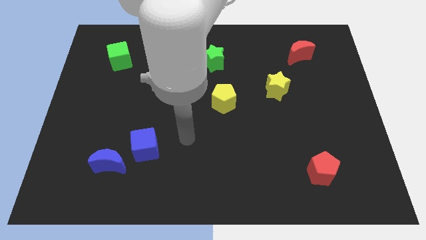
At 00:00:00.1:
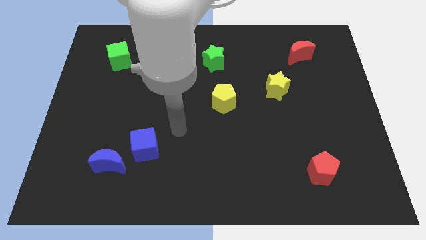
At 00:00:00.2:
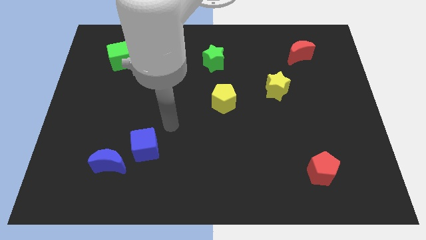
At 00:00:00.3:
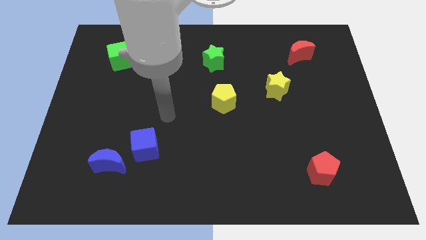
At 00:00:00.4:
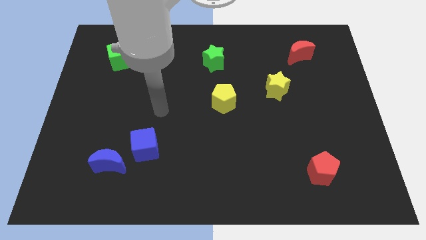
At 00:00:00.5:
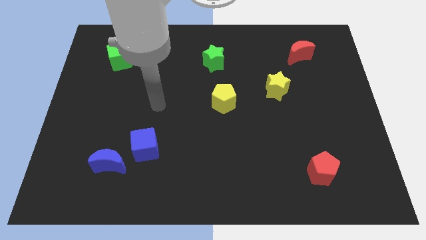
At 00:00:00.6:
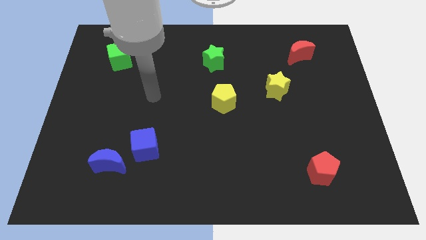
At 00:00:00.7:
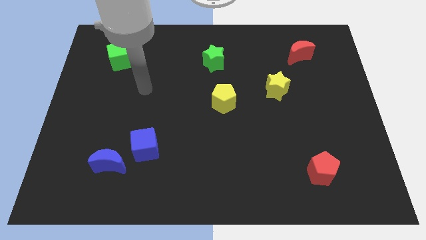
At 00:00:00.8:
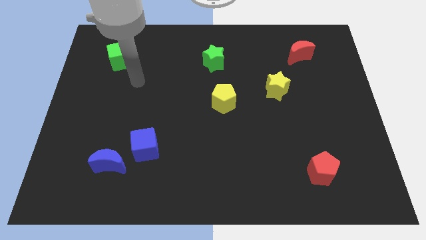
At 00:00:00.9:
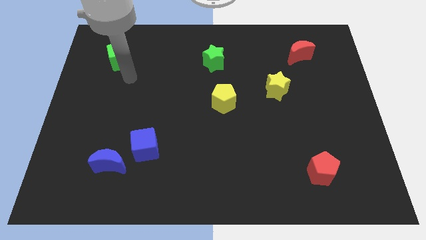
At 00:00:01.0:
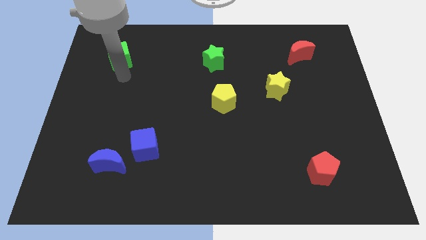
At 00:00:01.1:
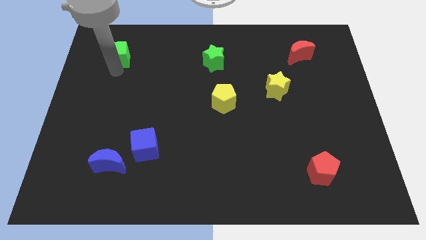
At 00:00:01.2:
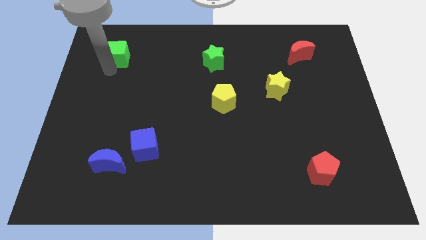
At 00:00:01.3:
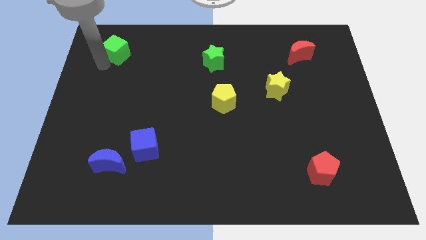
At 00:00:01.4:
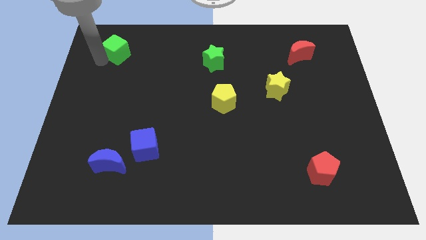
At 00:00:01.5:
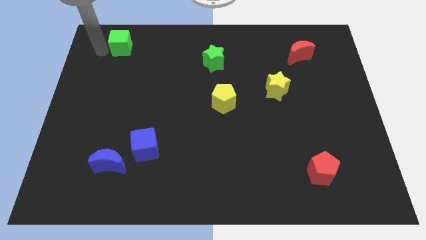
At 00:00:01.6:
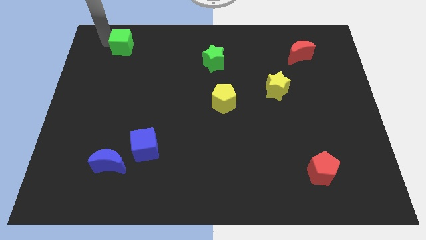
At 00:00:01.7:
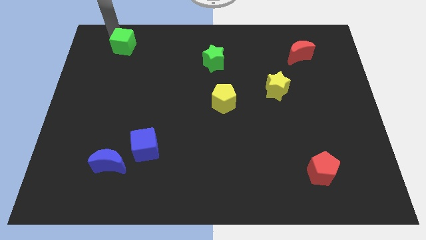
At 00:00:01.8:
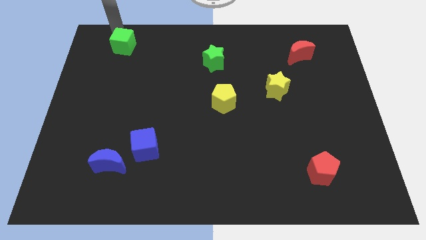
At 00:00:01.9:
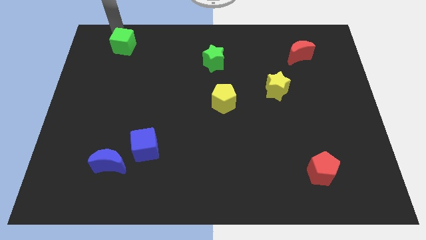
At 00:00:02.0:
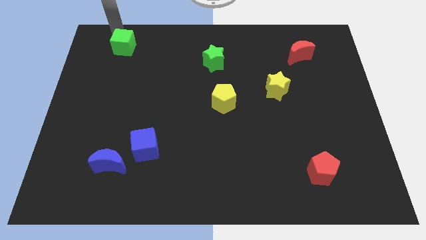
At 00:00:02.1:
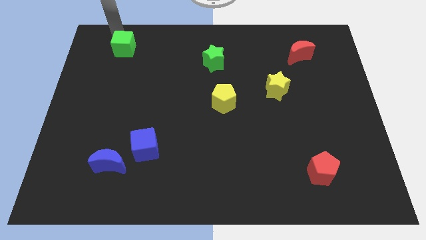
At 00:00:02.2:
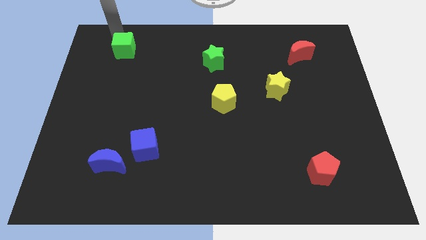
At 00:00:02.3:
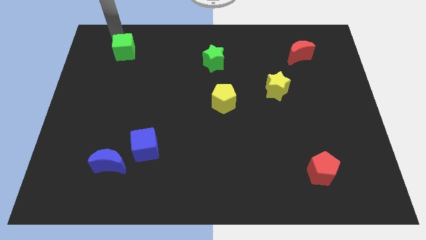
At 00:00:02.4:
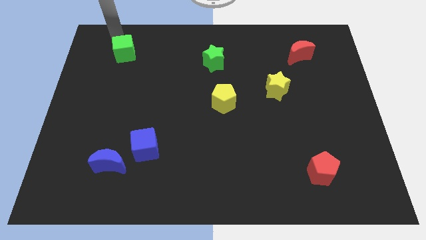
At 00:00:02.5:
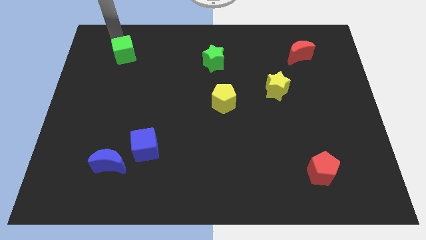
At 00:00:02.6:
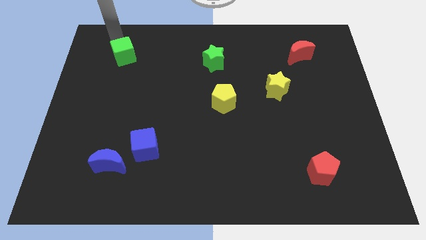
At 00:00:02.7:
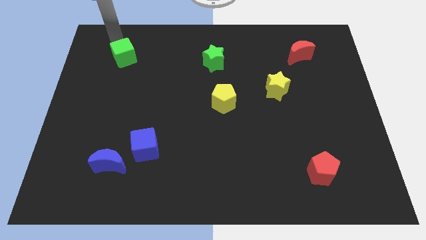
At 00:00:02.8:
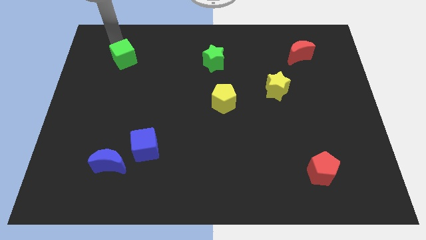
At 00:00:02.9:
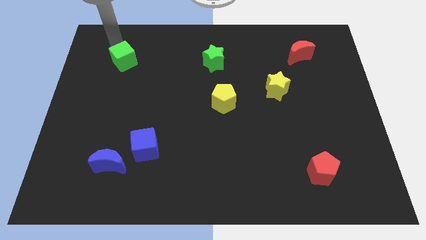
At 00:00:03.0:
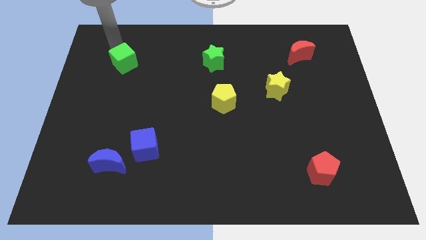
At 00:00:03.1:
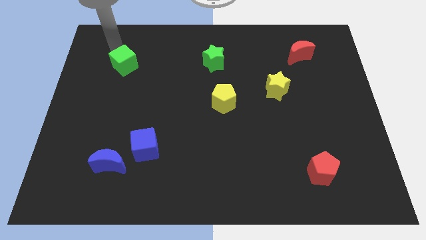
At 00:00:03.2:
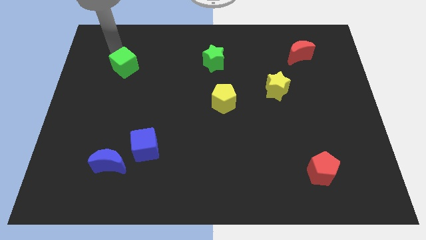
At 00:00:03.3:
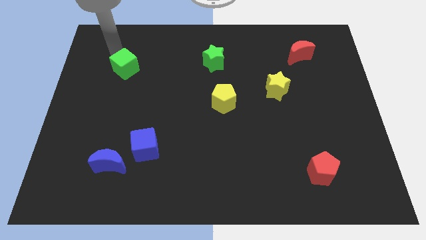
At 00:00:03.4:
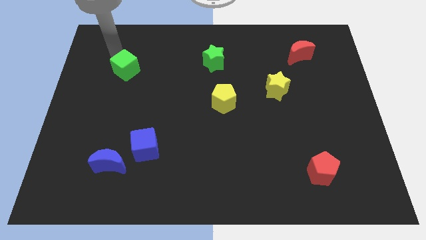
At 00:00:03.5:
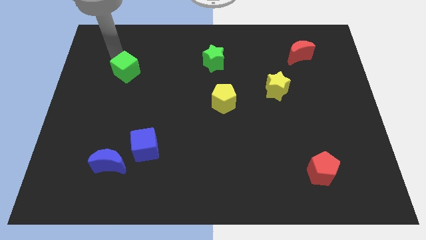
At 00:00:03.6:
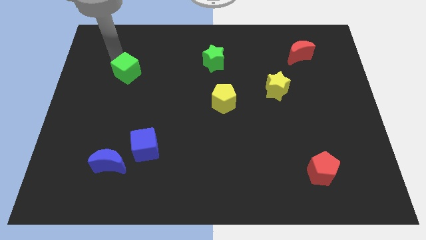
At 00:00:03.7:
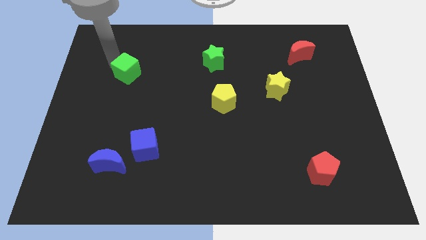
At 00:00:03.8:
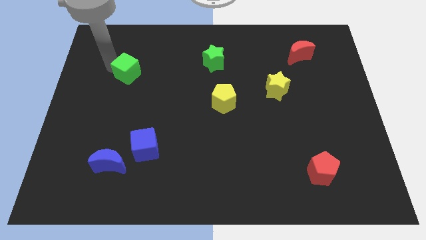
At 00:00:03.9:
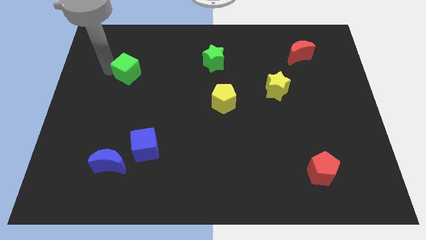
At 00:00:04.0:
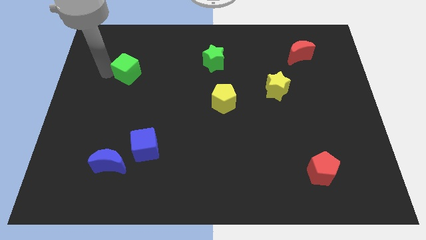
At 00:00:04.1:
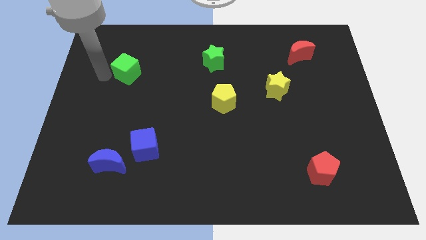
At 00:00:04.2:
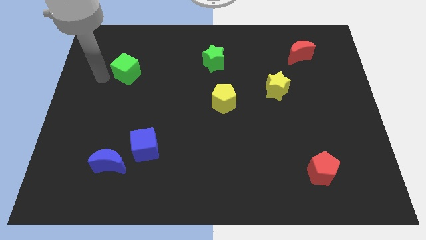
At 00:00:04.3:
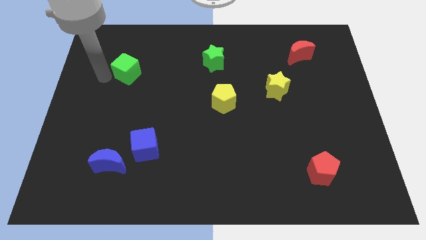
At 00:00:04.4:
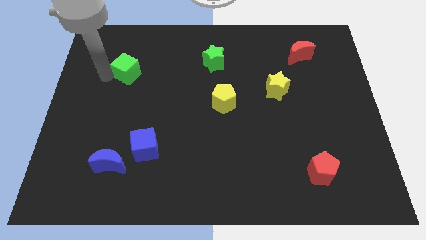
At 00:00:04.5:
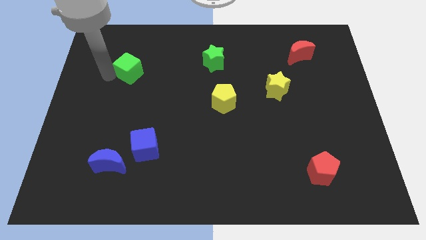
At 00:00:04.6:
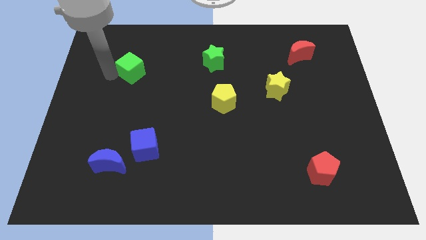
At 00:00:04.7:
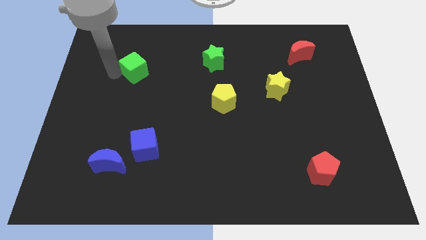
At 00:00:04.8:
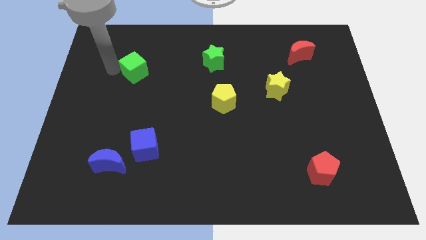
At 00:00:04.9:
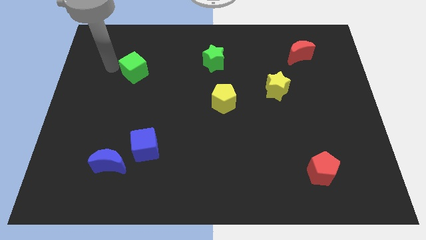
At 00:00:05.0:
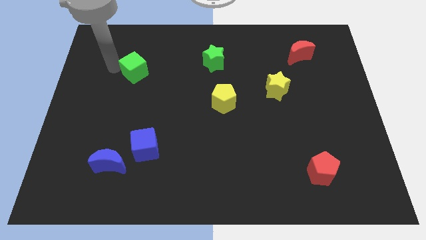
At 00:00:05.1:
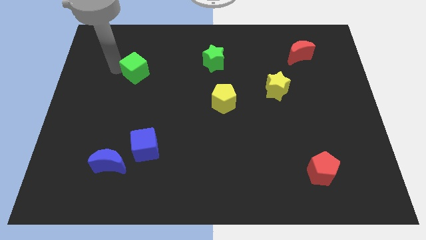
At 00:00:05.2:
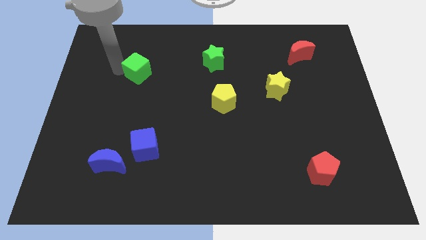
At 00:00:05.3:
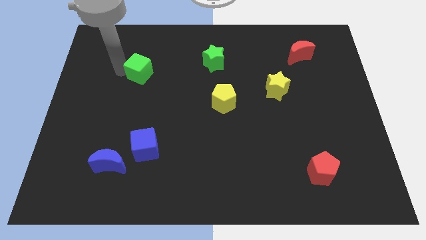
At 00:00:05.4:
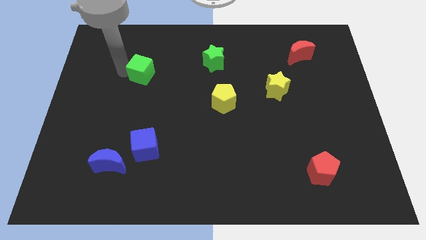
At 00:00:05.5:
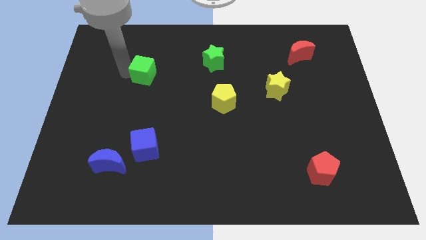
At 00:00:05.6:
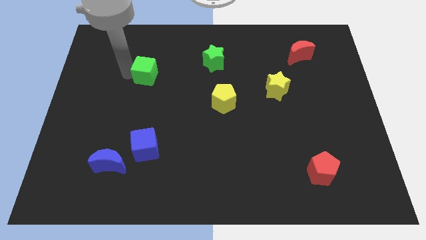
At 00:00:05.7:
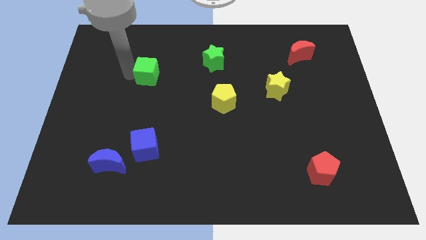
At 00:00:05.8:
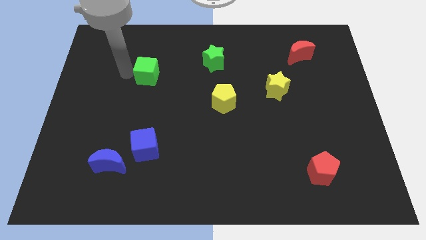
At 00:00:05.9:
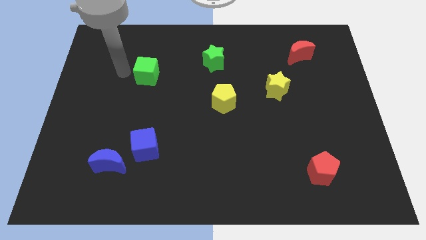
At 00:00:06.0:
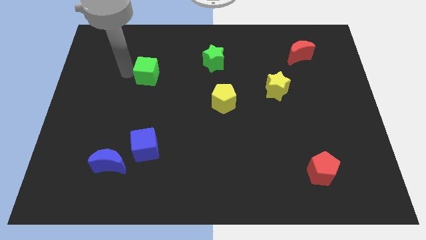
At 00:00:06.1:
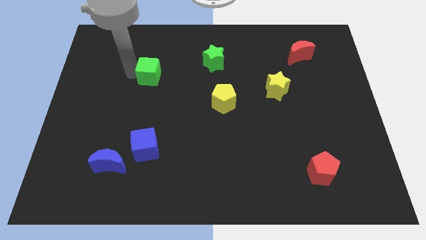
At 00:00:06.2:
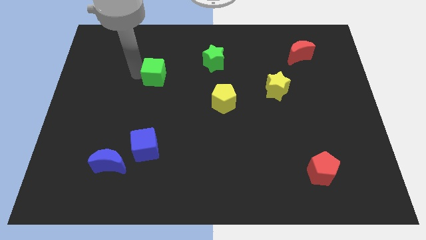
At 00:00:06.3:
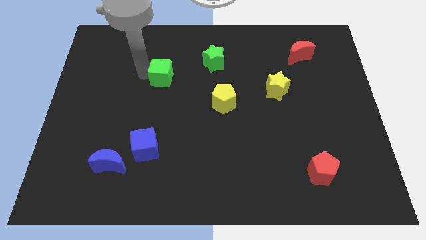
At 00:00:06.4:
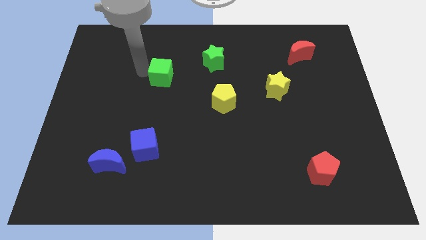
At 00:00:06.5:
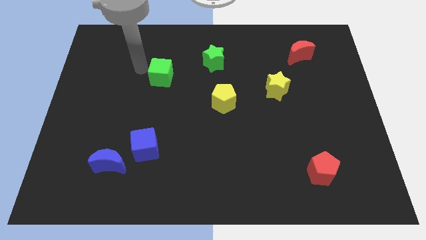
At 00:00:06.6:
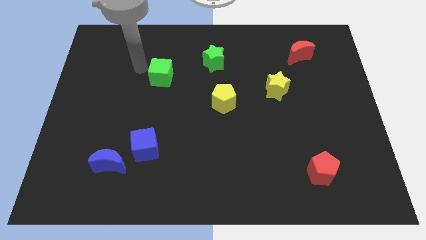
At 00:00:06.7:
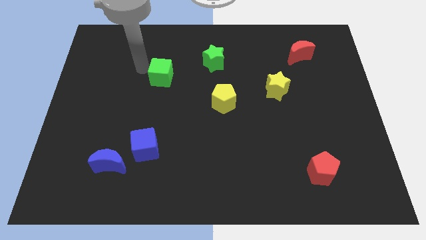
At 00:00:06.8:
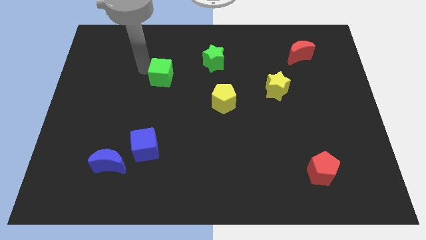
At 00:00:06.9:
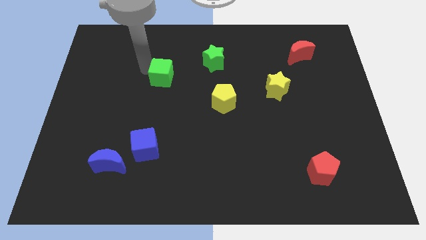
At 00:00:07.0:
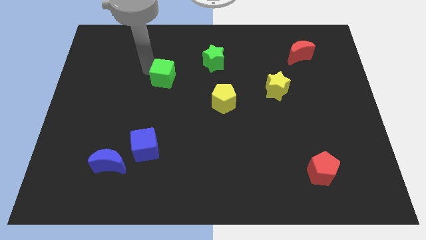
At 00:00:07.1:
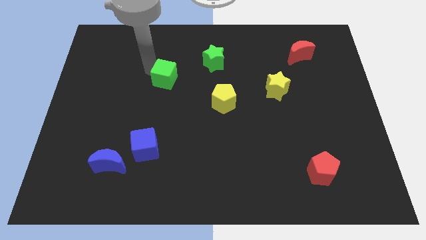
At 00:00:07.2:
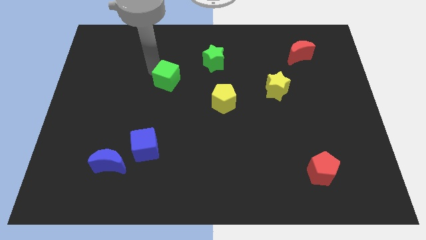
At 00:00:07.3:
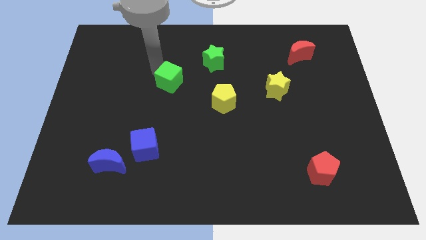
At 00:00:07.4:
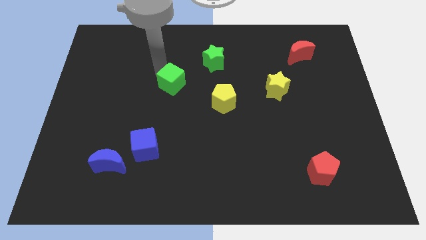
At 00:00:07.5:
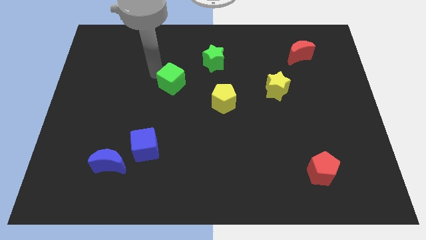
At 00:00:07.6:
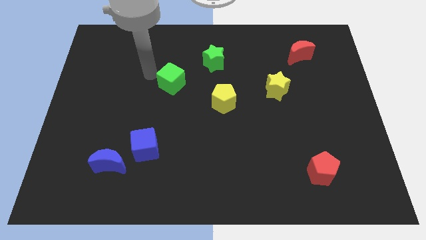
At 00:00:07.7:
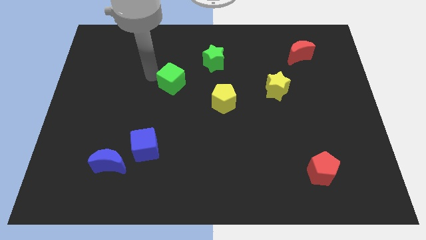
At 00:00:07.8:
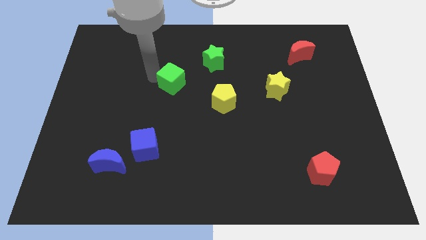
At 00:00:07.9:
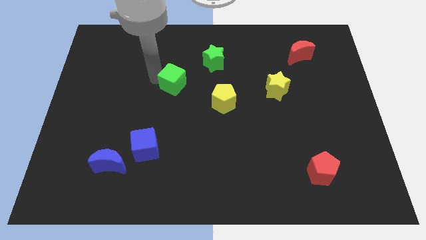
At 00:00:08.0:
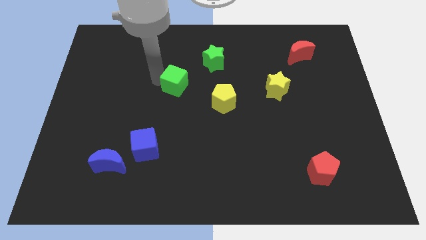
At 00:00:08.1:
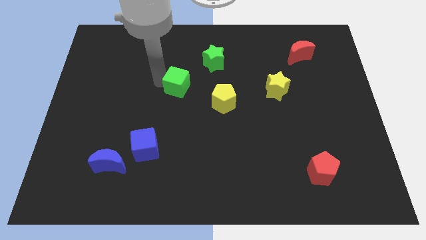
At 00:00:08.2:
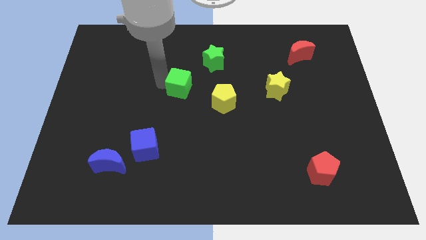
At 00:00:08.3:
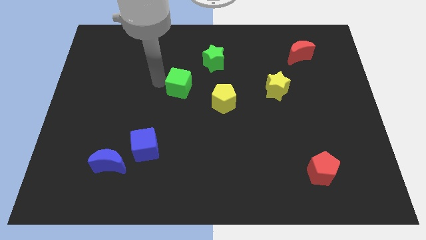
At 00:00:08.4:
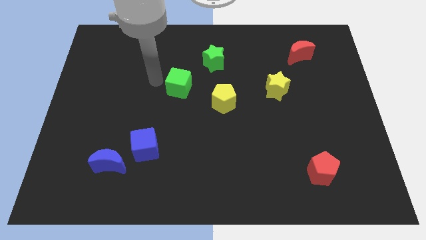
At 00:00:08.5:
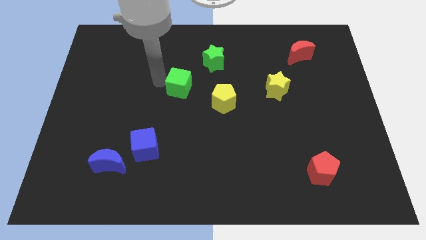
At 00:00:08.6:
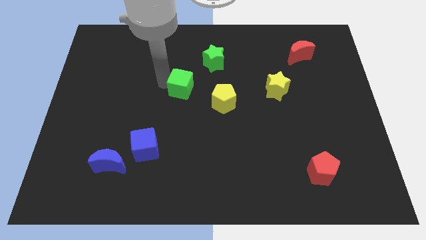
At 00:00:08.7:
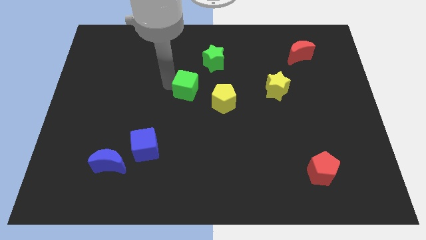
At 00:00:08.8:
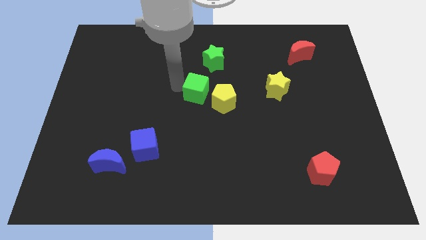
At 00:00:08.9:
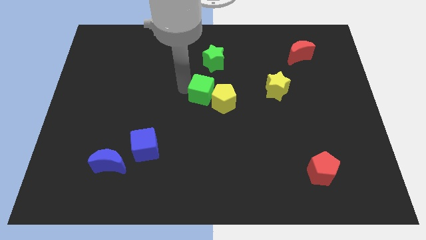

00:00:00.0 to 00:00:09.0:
slide the green cube next to the yellow pentagon
